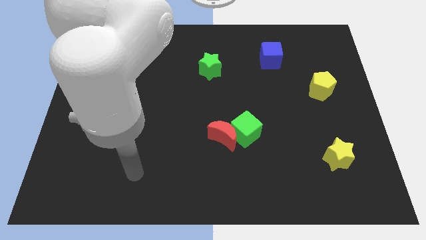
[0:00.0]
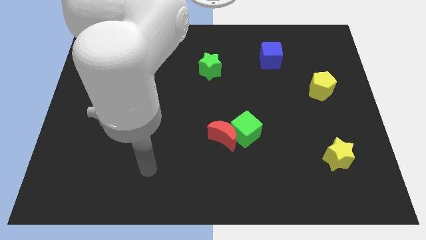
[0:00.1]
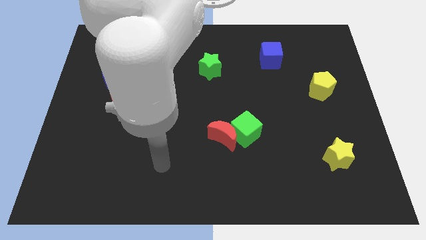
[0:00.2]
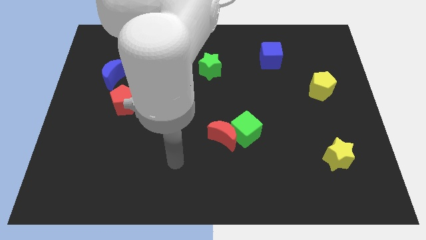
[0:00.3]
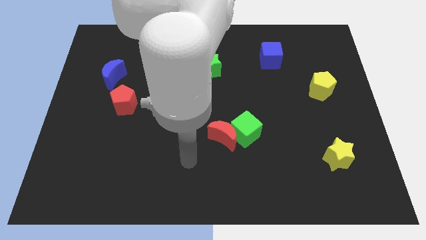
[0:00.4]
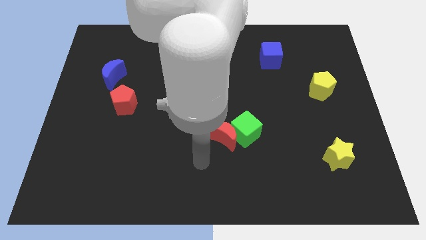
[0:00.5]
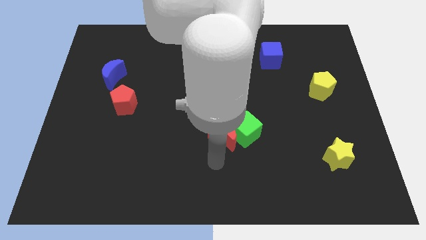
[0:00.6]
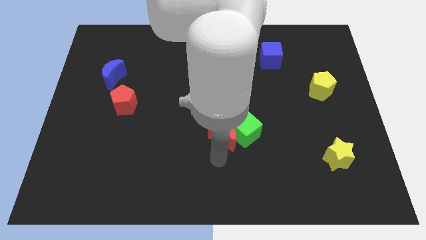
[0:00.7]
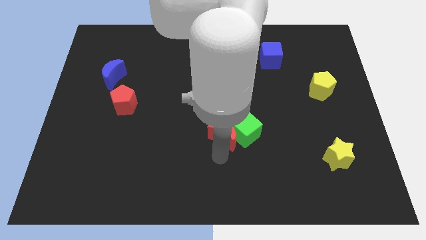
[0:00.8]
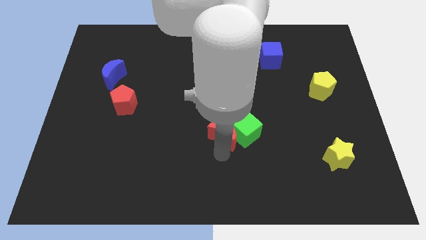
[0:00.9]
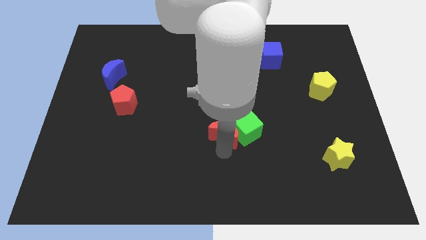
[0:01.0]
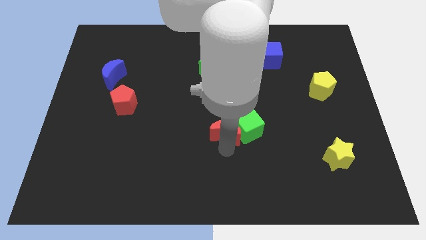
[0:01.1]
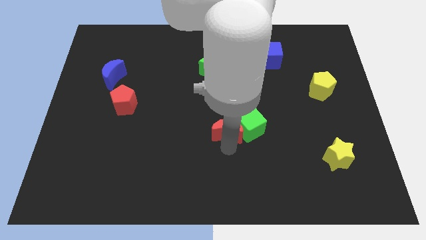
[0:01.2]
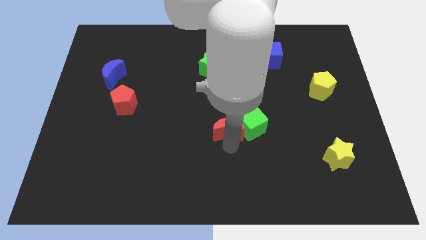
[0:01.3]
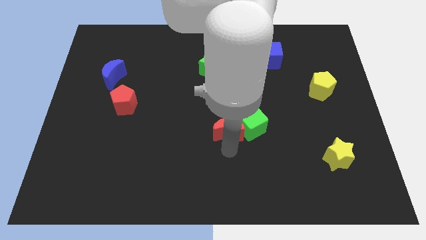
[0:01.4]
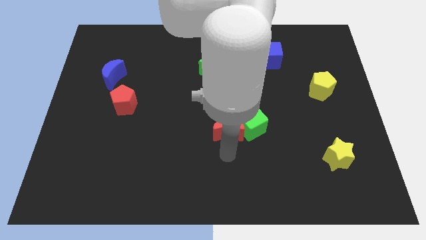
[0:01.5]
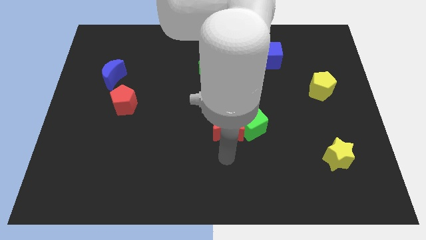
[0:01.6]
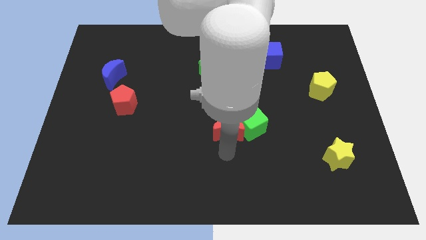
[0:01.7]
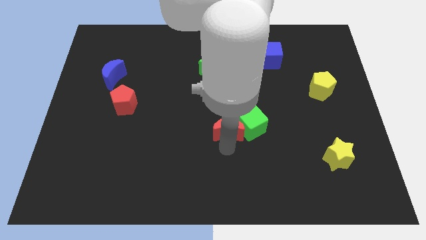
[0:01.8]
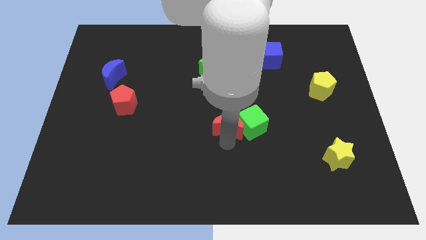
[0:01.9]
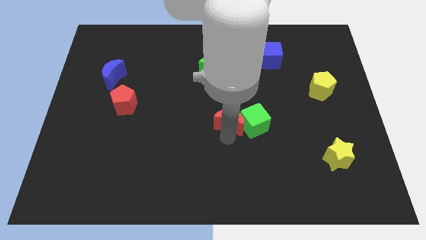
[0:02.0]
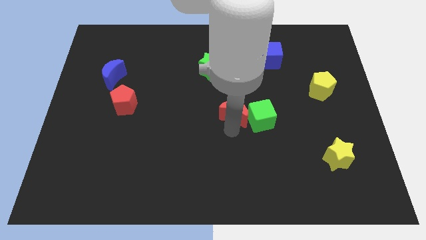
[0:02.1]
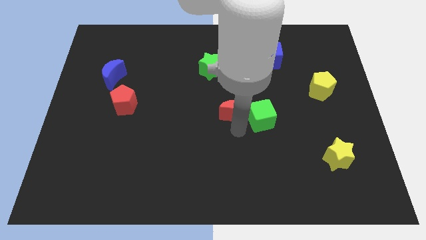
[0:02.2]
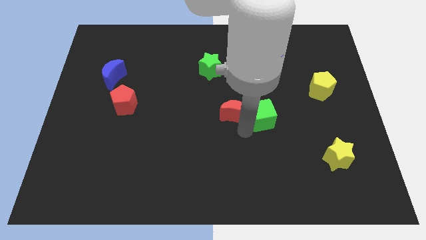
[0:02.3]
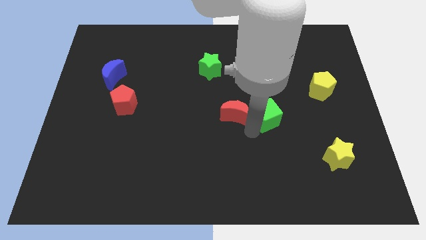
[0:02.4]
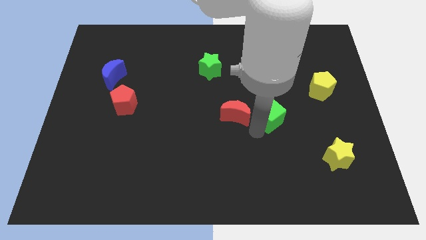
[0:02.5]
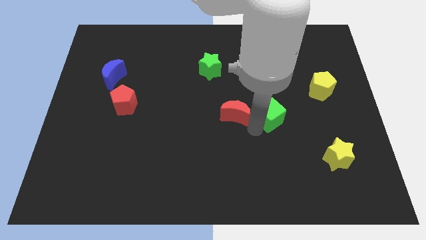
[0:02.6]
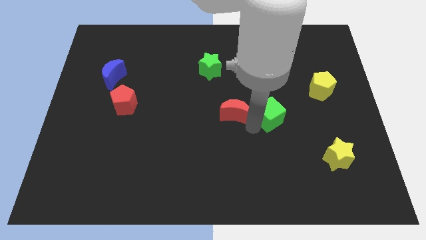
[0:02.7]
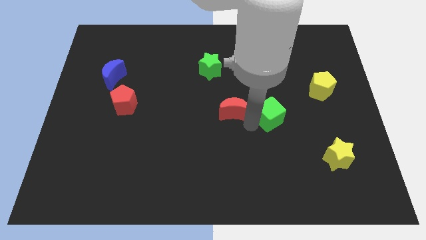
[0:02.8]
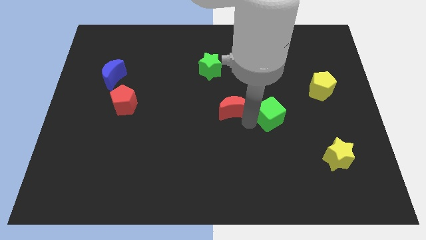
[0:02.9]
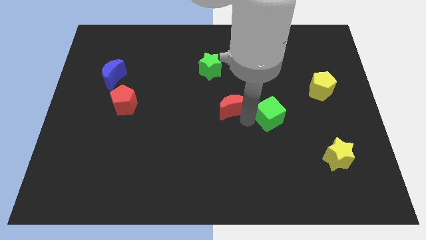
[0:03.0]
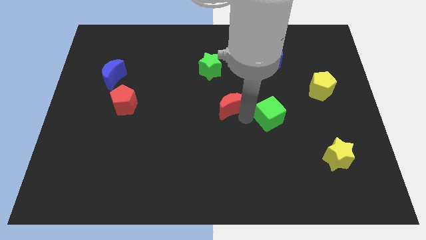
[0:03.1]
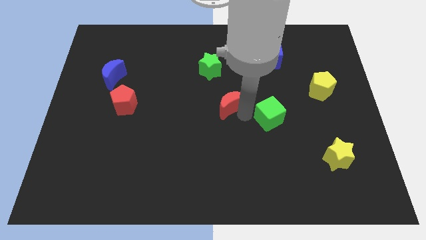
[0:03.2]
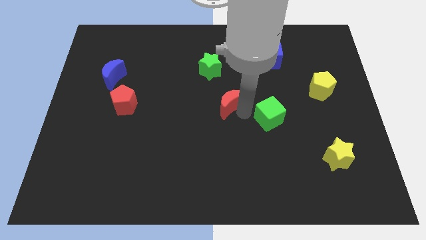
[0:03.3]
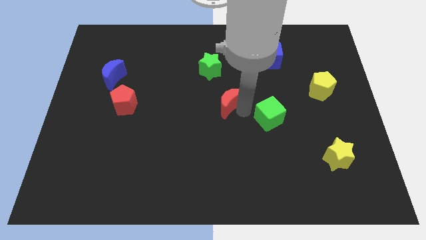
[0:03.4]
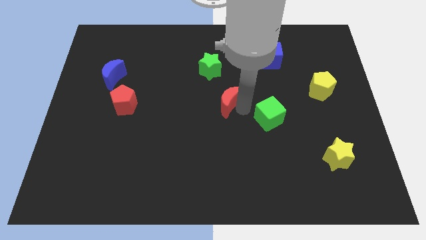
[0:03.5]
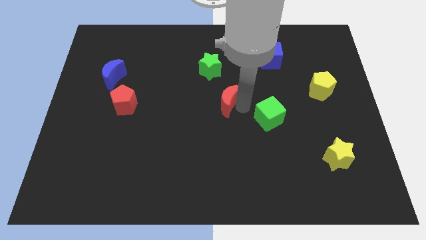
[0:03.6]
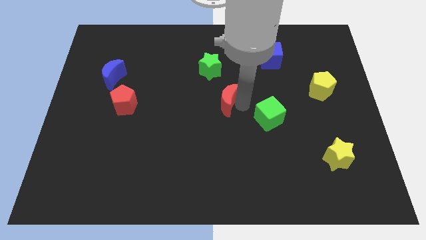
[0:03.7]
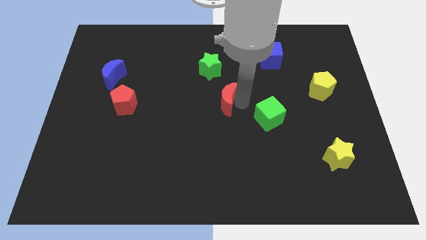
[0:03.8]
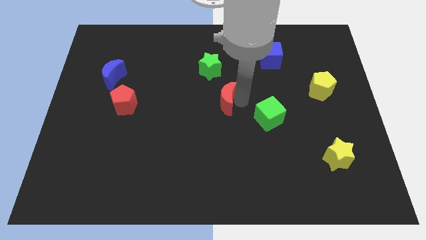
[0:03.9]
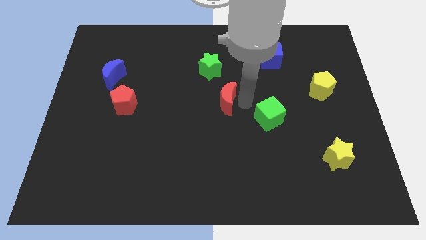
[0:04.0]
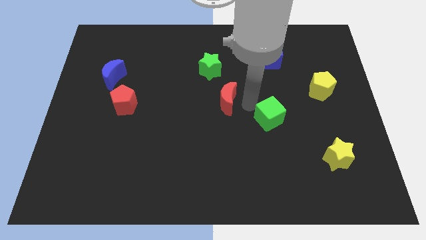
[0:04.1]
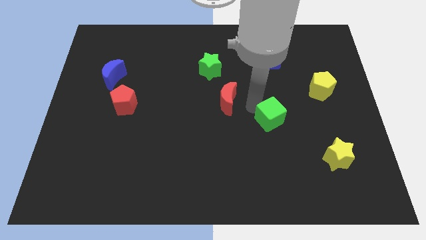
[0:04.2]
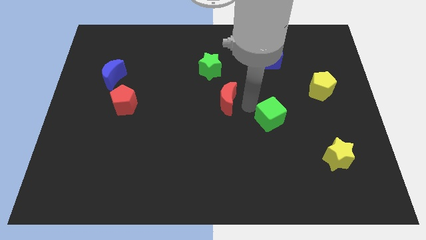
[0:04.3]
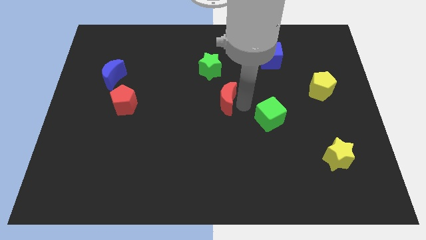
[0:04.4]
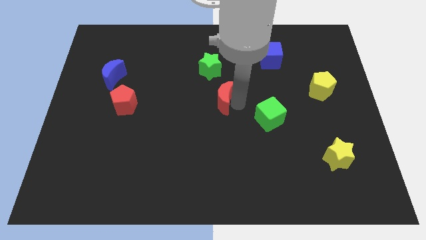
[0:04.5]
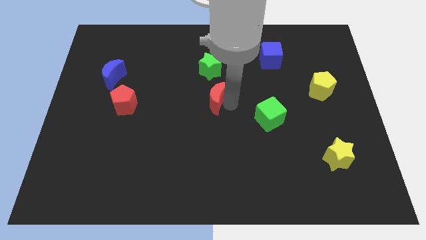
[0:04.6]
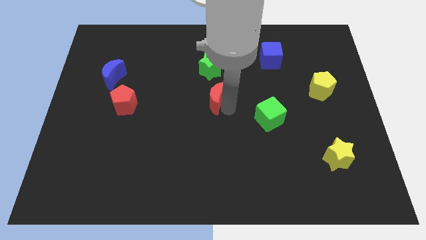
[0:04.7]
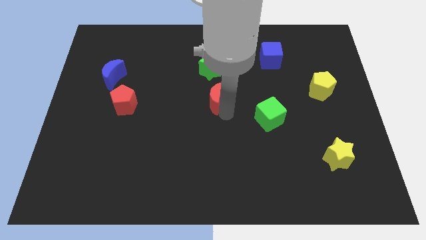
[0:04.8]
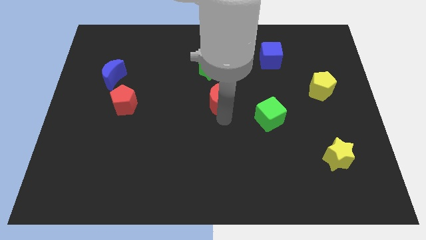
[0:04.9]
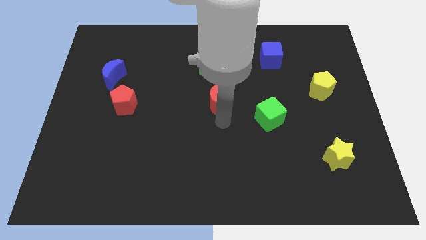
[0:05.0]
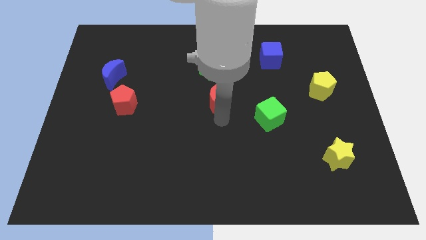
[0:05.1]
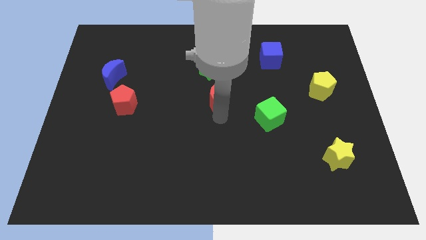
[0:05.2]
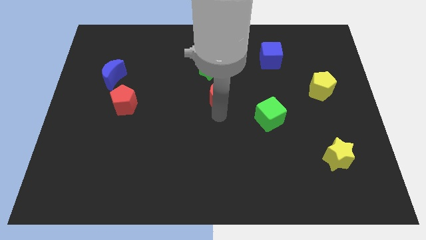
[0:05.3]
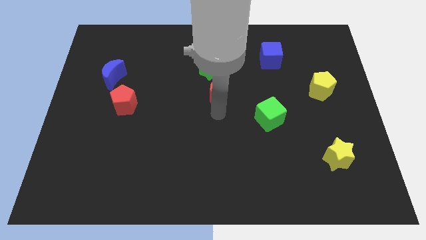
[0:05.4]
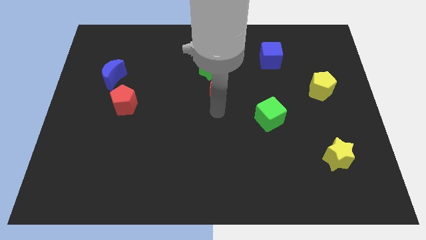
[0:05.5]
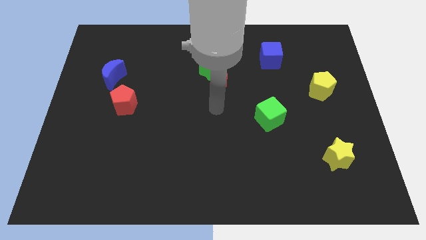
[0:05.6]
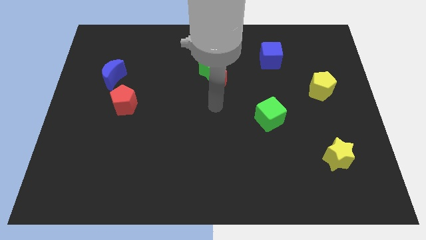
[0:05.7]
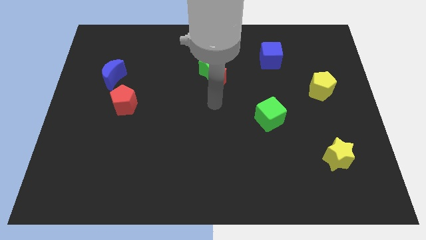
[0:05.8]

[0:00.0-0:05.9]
slide the red moon close to the green star

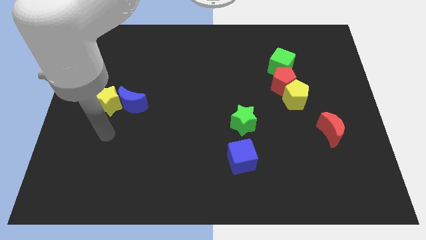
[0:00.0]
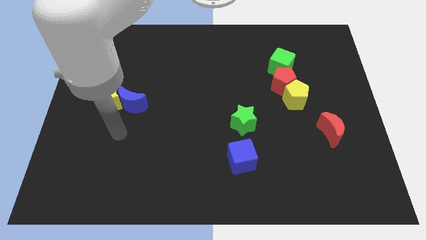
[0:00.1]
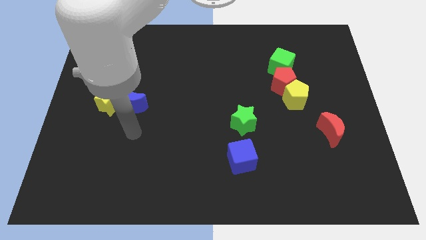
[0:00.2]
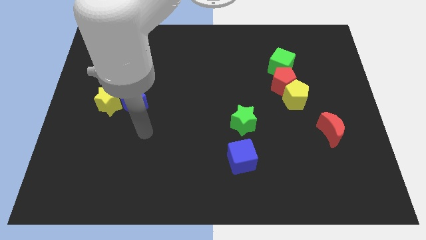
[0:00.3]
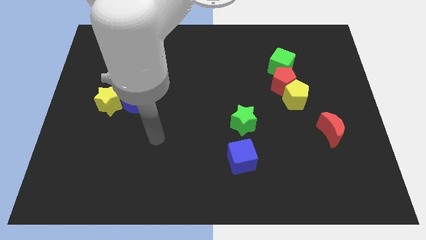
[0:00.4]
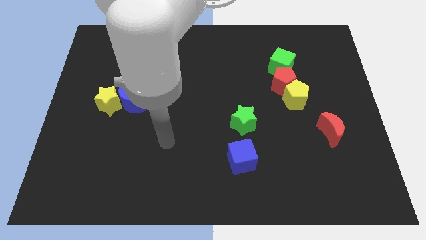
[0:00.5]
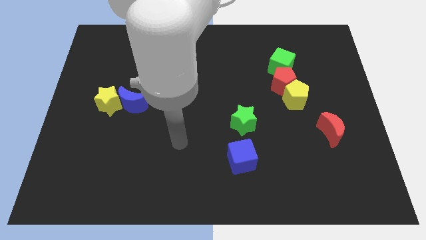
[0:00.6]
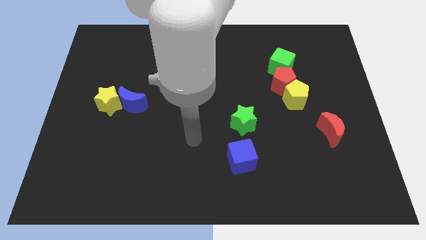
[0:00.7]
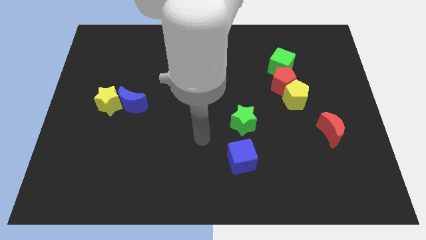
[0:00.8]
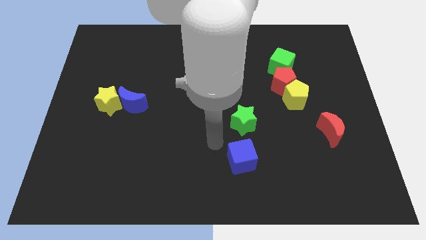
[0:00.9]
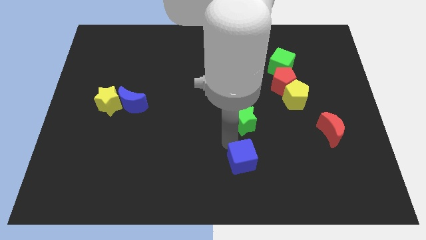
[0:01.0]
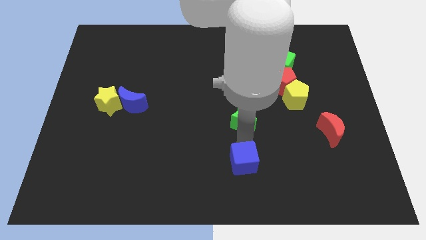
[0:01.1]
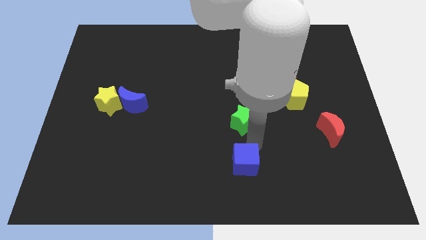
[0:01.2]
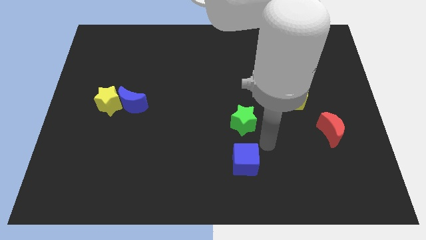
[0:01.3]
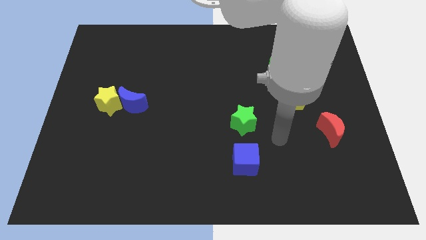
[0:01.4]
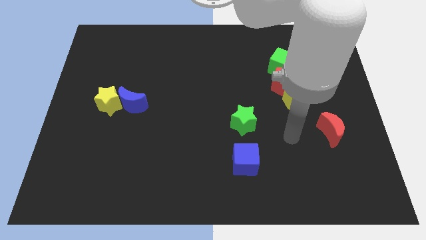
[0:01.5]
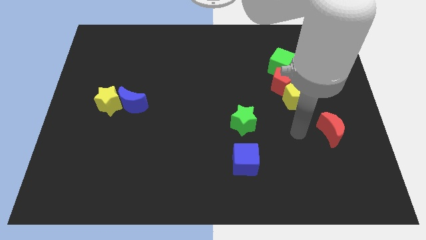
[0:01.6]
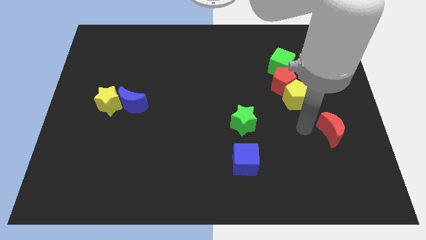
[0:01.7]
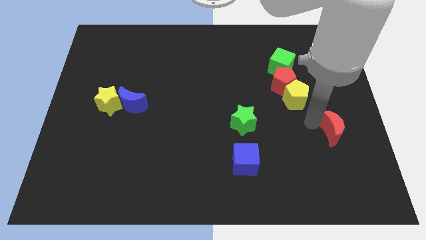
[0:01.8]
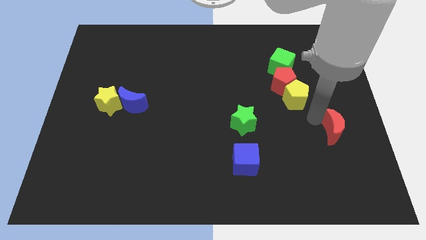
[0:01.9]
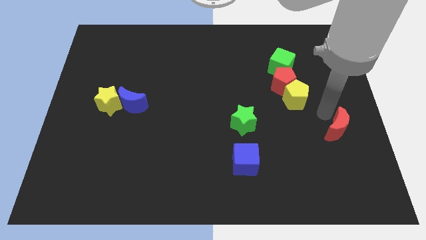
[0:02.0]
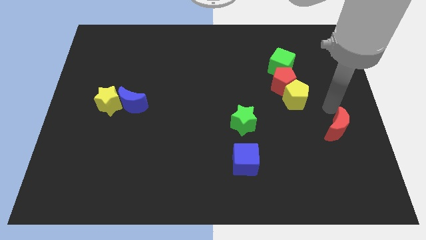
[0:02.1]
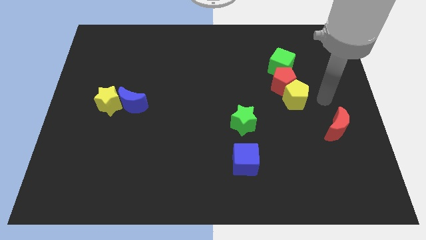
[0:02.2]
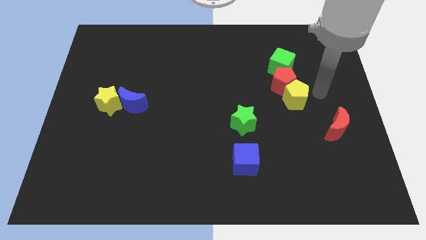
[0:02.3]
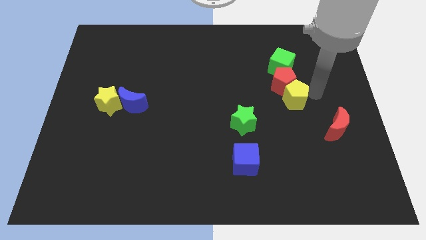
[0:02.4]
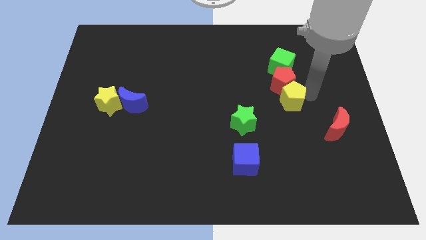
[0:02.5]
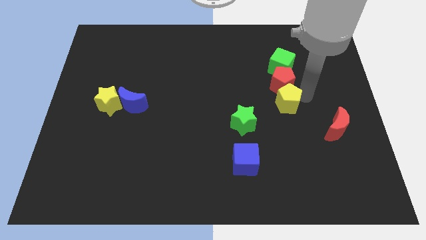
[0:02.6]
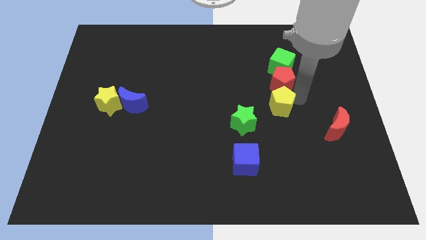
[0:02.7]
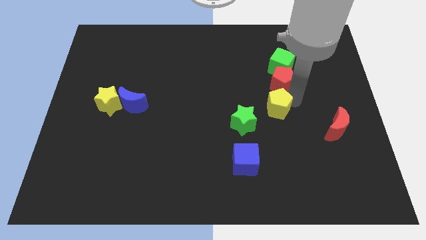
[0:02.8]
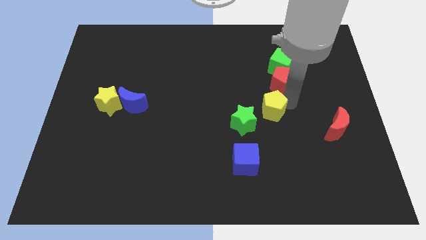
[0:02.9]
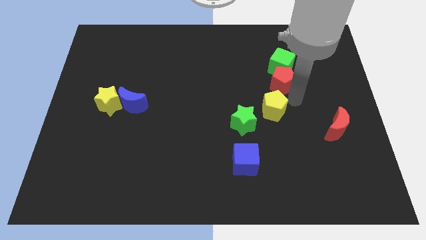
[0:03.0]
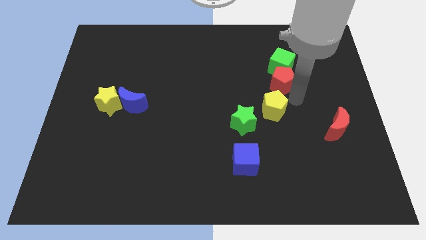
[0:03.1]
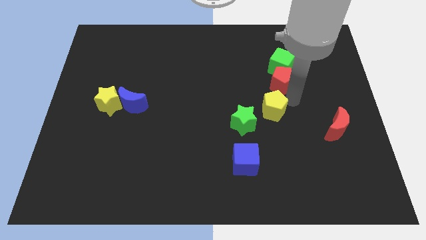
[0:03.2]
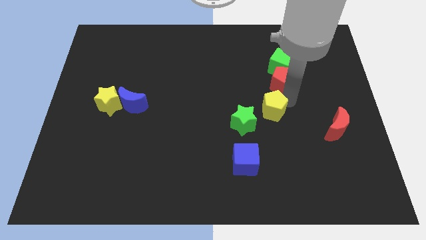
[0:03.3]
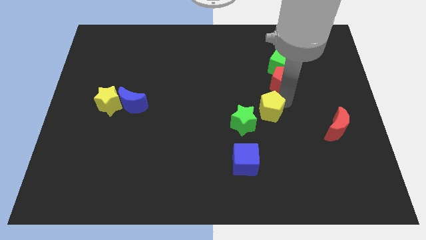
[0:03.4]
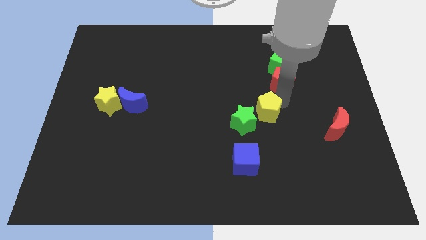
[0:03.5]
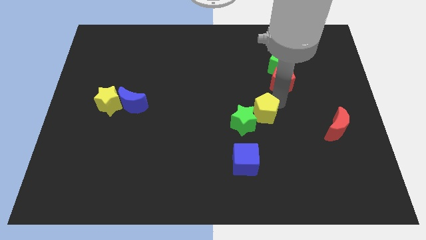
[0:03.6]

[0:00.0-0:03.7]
put the yellow pentagon to the green star
